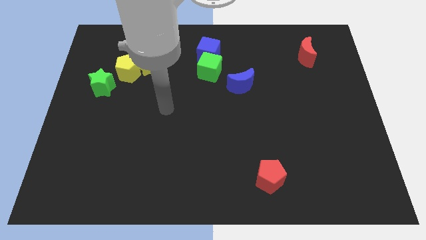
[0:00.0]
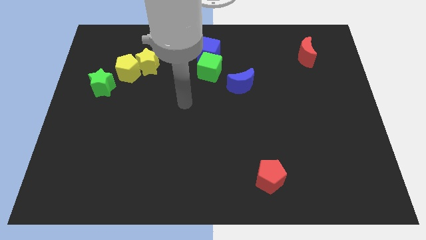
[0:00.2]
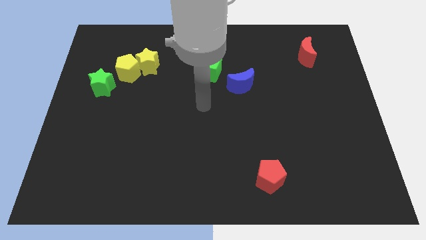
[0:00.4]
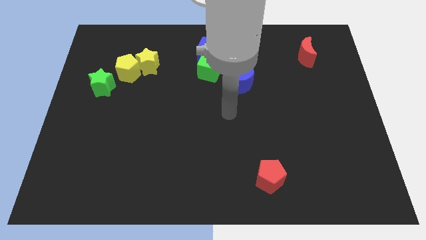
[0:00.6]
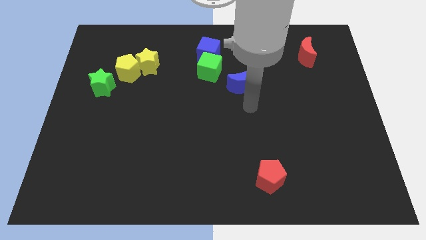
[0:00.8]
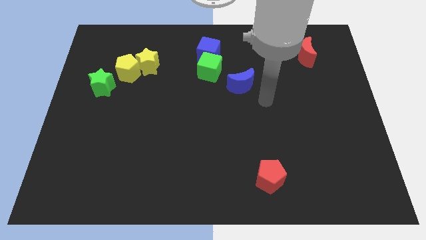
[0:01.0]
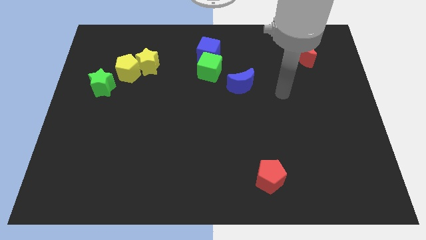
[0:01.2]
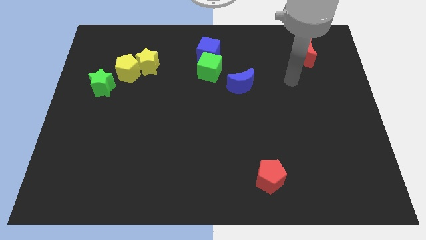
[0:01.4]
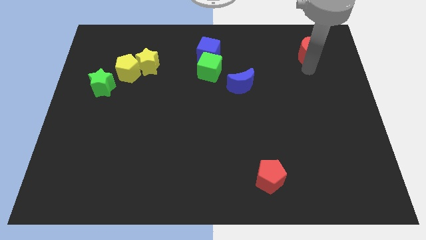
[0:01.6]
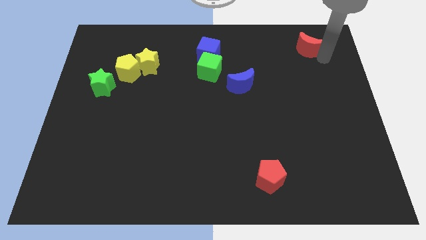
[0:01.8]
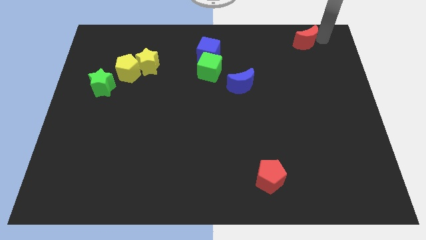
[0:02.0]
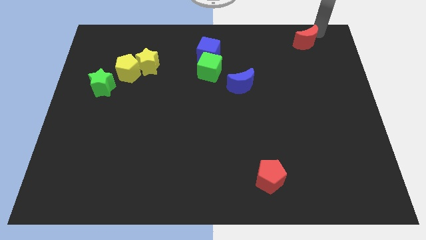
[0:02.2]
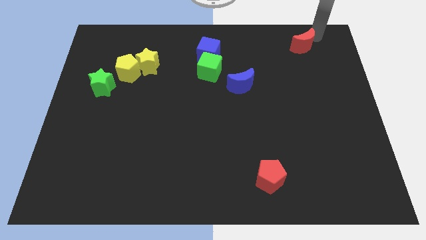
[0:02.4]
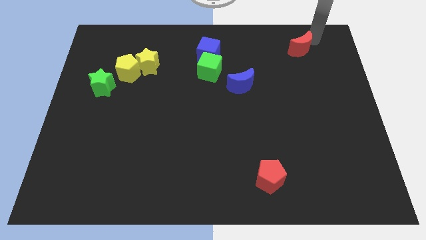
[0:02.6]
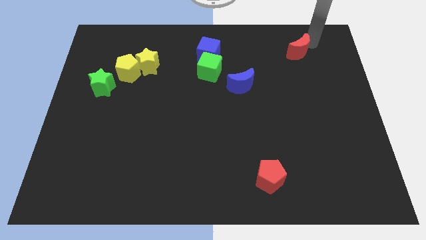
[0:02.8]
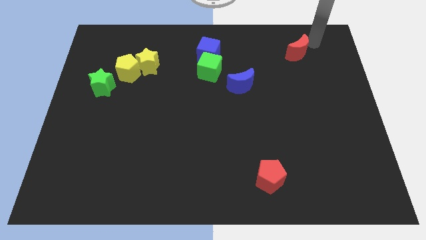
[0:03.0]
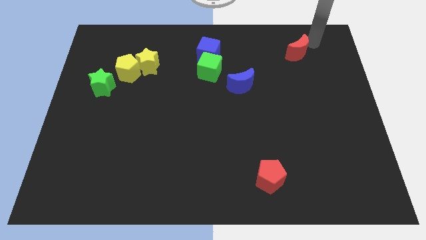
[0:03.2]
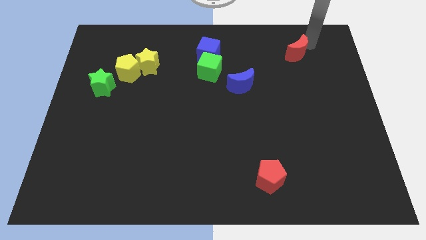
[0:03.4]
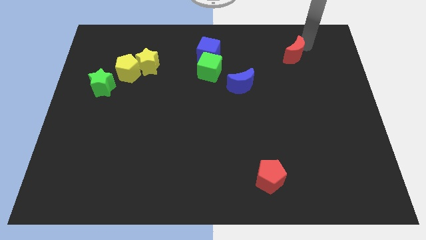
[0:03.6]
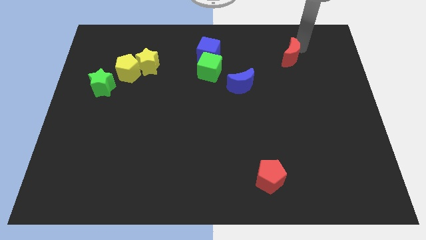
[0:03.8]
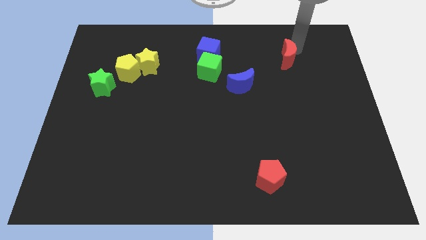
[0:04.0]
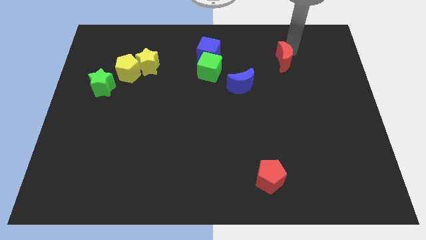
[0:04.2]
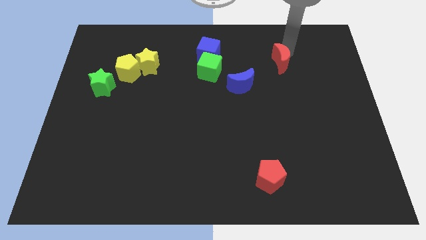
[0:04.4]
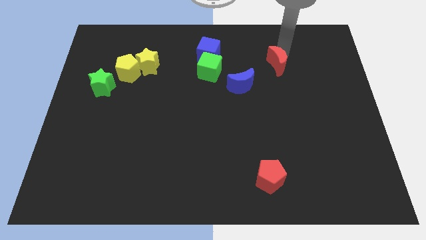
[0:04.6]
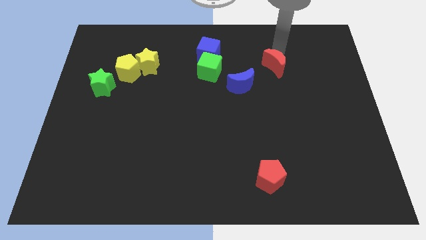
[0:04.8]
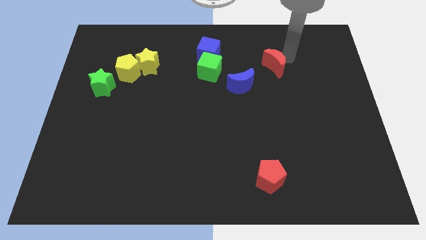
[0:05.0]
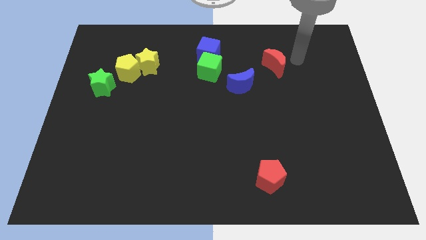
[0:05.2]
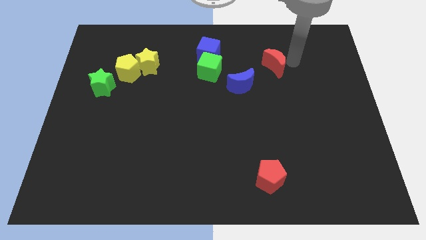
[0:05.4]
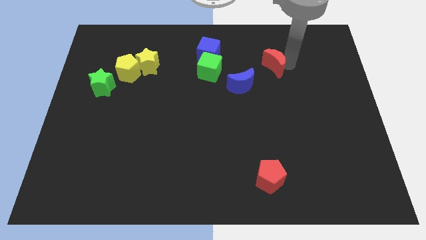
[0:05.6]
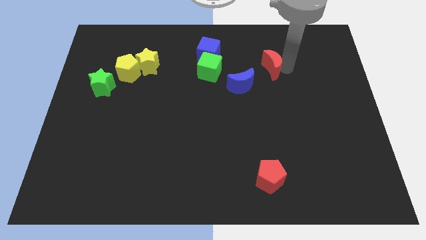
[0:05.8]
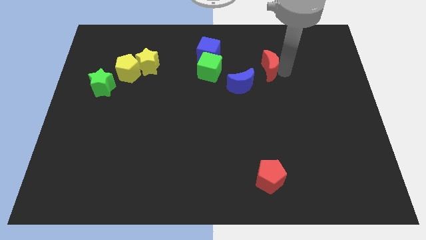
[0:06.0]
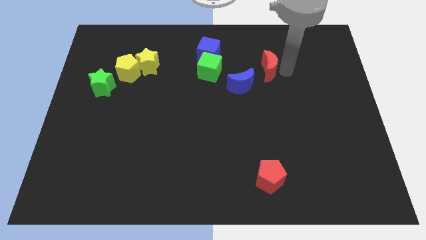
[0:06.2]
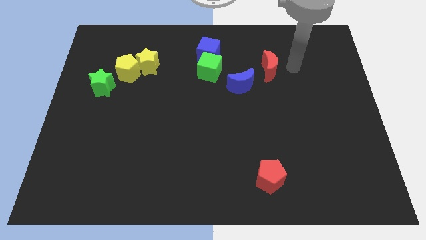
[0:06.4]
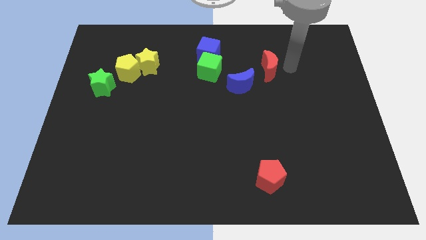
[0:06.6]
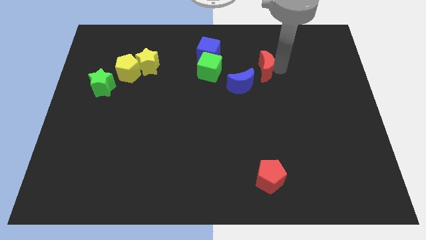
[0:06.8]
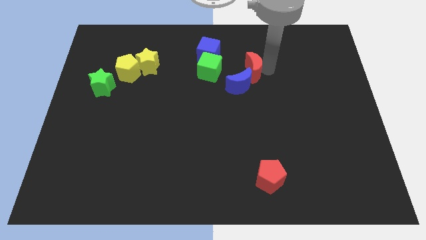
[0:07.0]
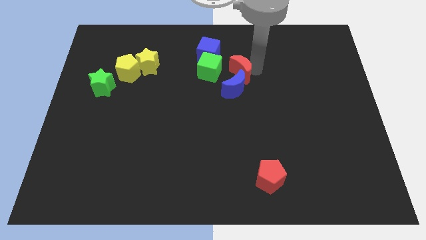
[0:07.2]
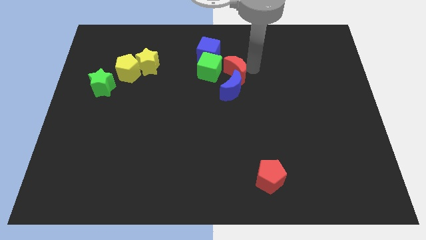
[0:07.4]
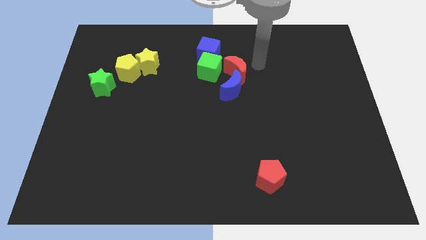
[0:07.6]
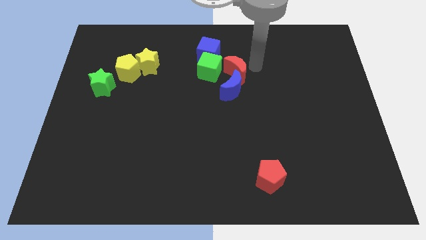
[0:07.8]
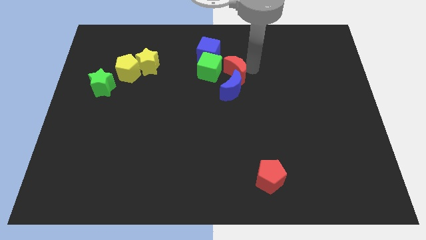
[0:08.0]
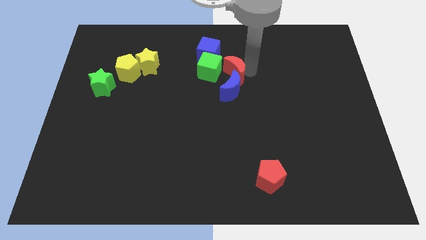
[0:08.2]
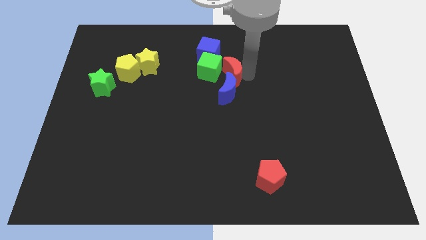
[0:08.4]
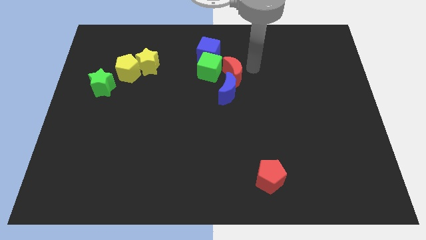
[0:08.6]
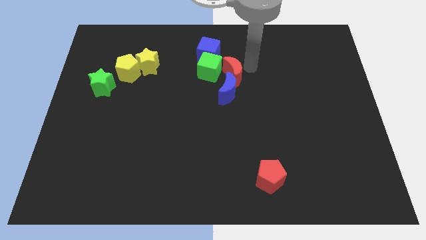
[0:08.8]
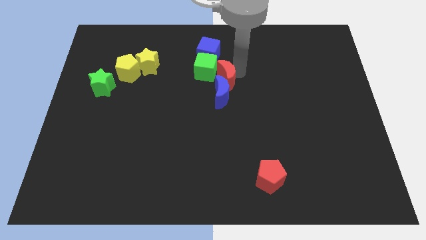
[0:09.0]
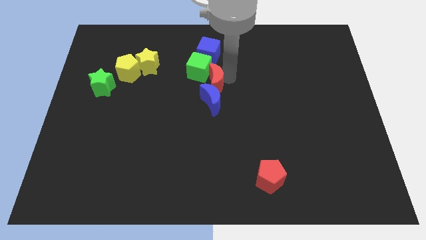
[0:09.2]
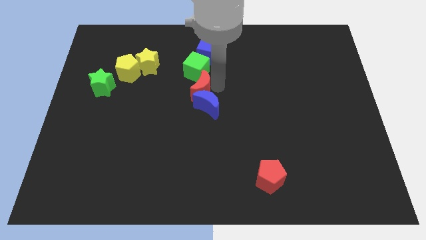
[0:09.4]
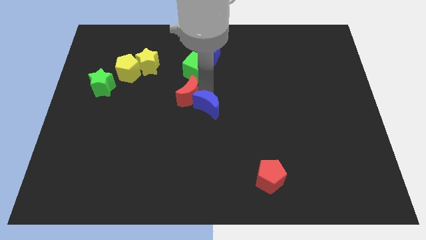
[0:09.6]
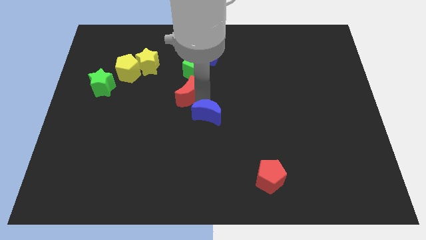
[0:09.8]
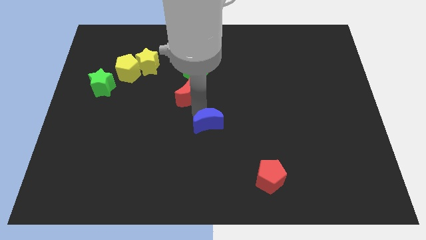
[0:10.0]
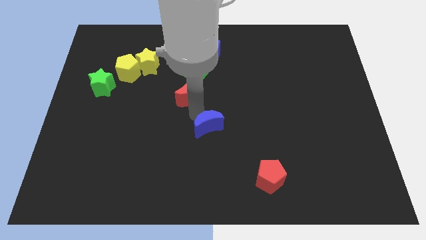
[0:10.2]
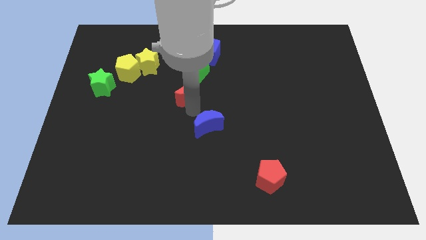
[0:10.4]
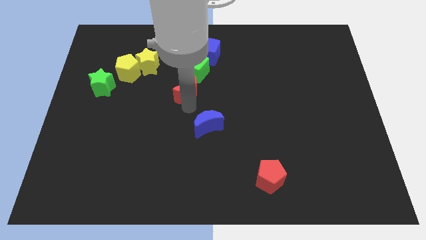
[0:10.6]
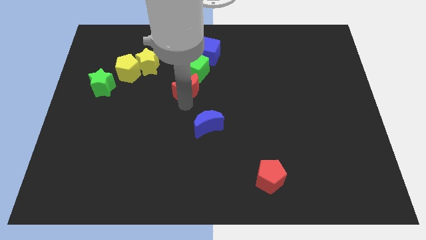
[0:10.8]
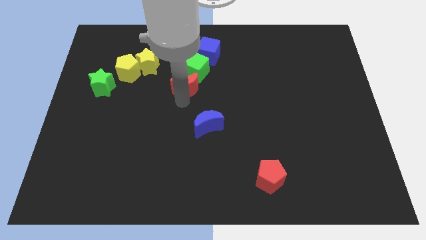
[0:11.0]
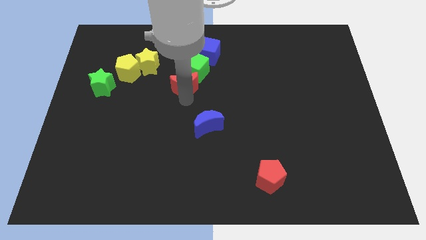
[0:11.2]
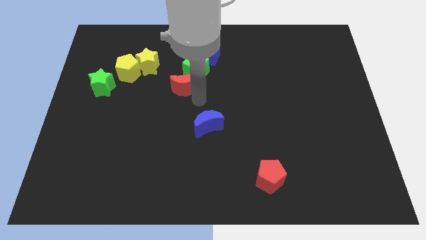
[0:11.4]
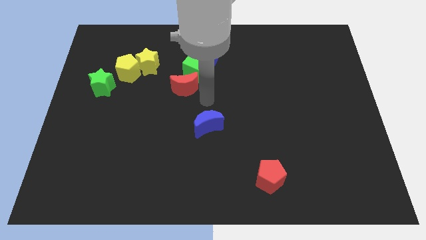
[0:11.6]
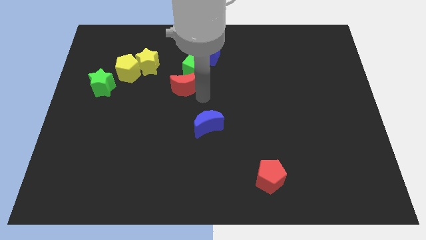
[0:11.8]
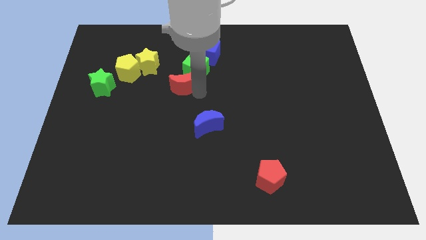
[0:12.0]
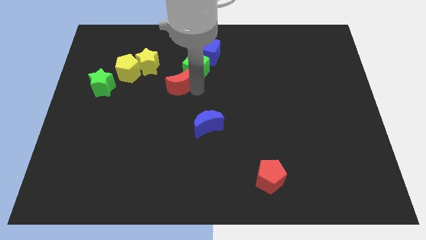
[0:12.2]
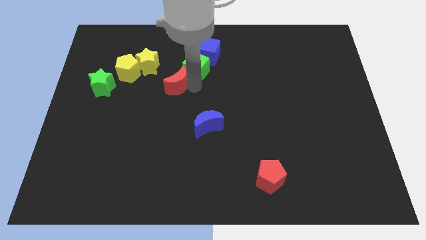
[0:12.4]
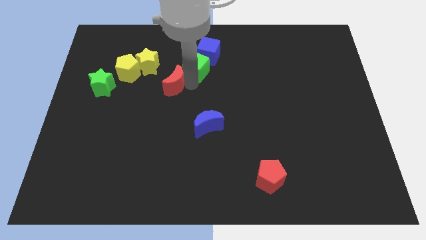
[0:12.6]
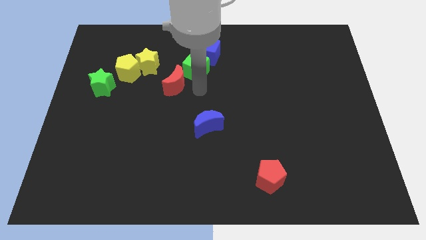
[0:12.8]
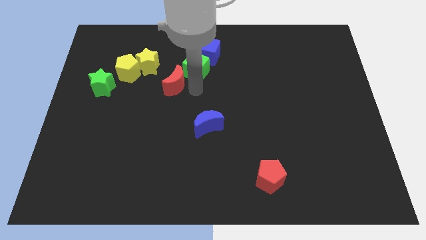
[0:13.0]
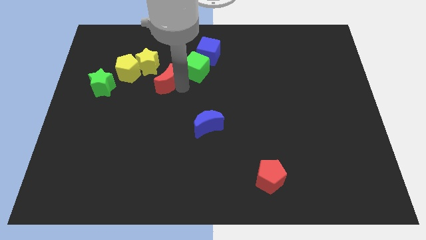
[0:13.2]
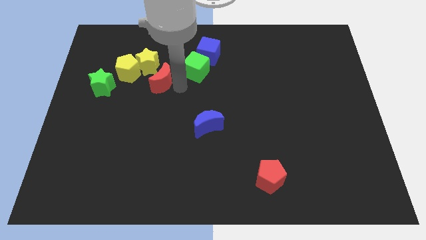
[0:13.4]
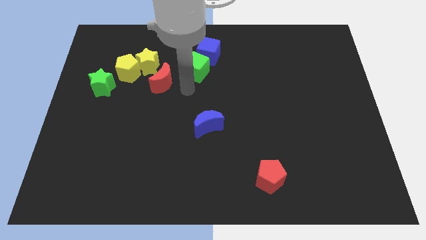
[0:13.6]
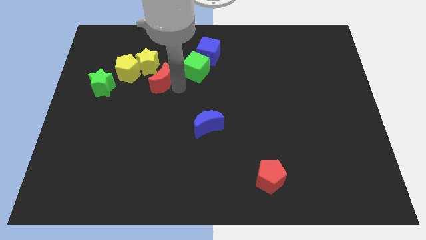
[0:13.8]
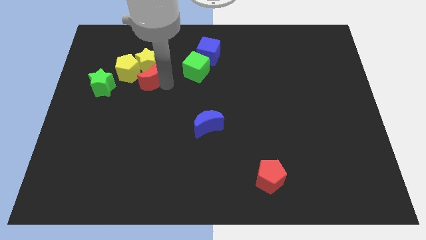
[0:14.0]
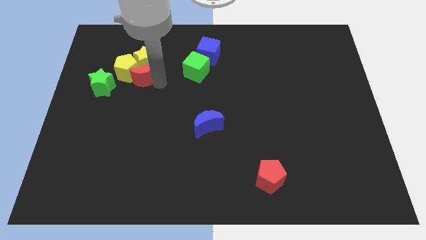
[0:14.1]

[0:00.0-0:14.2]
slide the red moon towards the yellow pentagon
